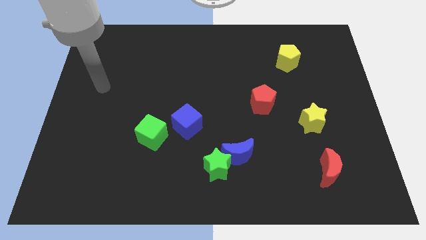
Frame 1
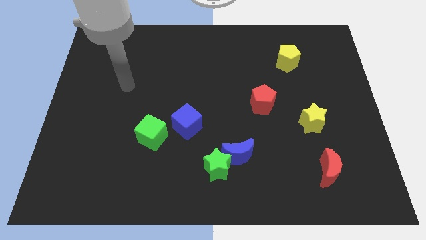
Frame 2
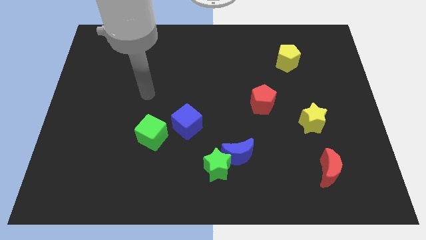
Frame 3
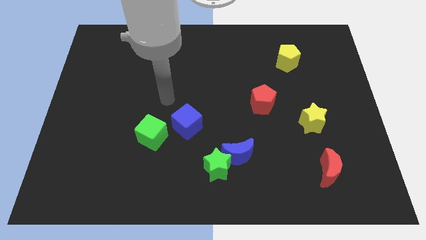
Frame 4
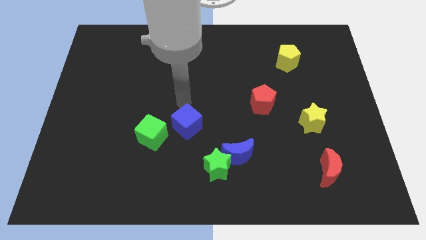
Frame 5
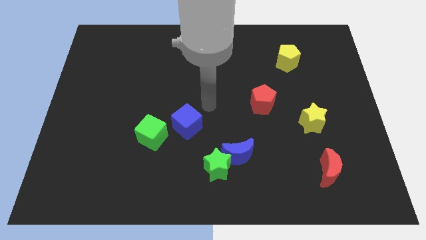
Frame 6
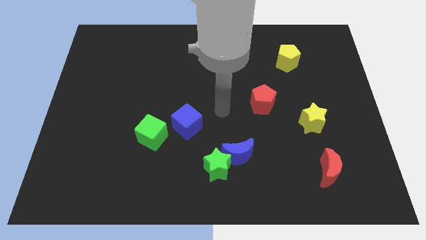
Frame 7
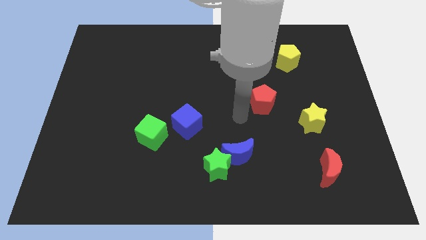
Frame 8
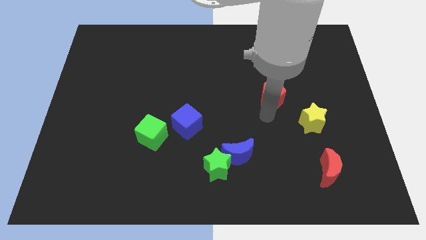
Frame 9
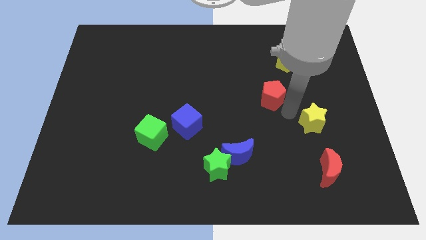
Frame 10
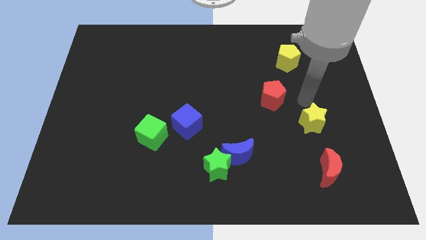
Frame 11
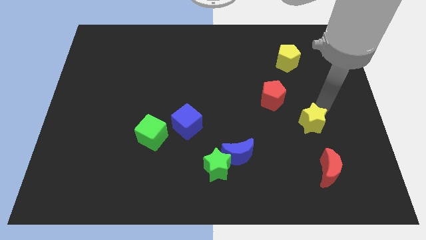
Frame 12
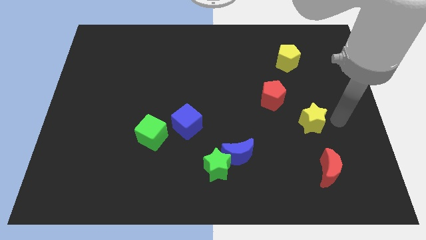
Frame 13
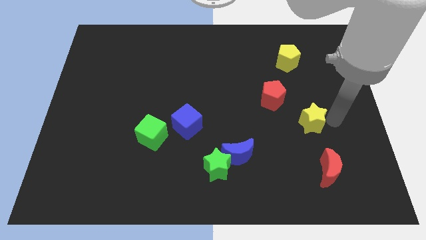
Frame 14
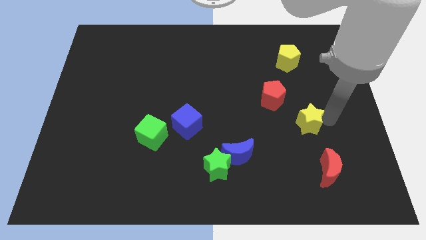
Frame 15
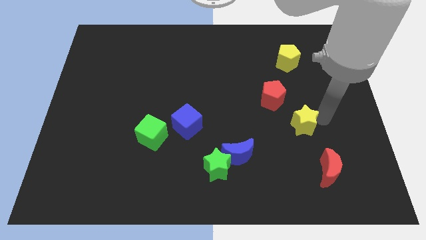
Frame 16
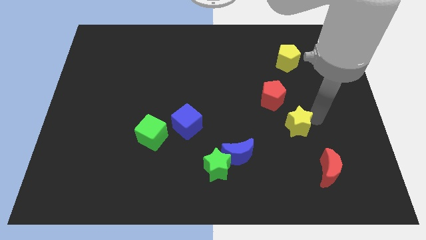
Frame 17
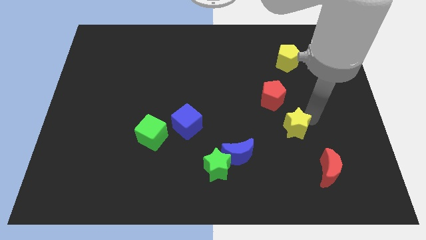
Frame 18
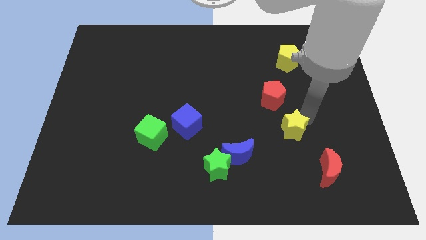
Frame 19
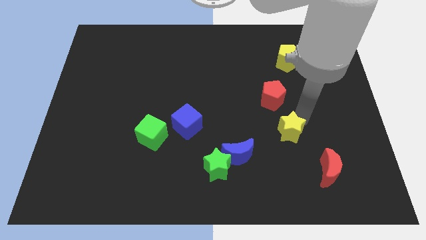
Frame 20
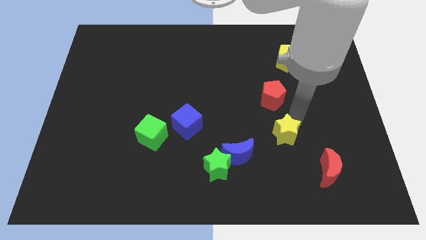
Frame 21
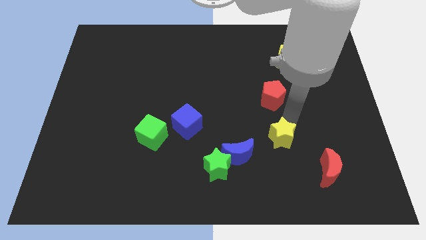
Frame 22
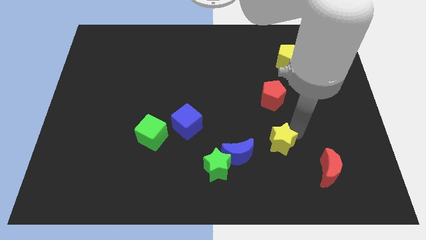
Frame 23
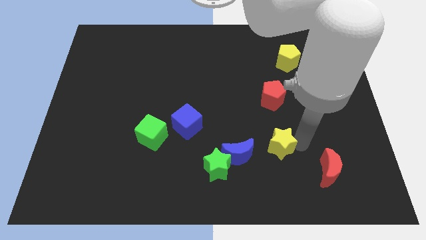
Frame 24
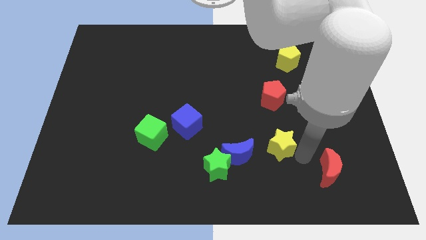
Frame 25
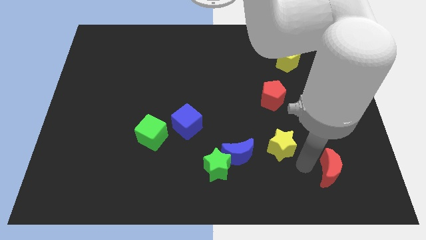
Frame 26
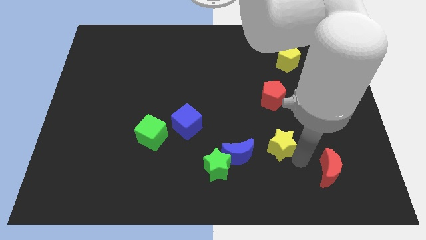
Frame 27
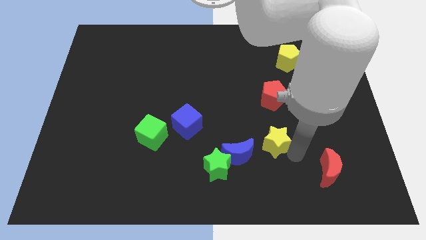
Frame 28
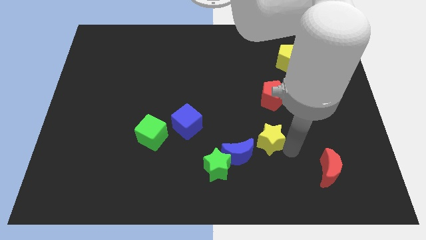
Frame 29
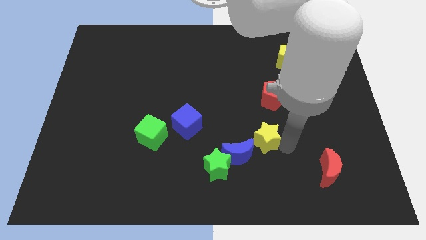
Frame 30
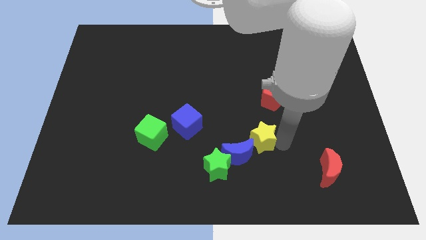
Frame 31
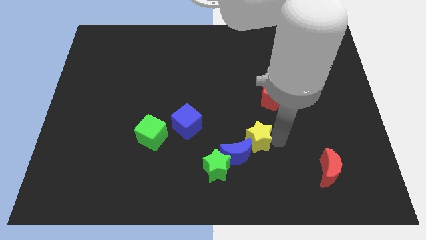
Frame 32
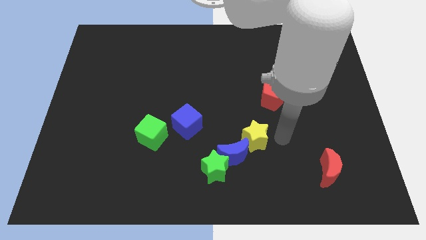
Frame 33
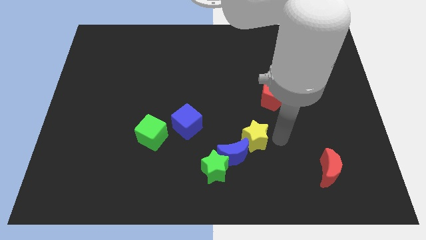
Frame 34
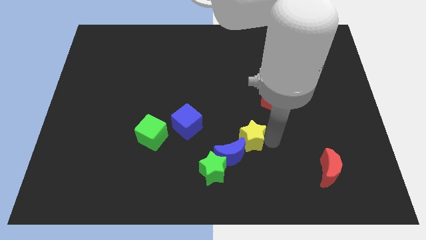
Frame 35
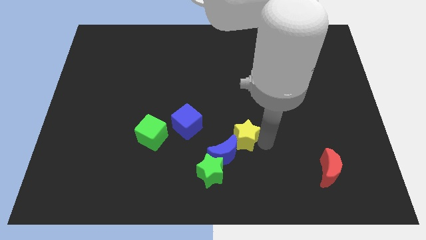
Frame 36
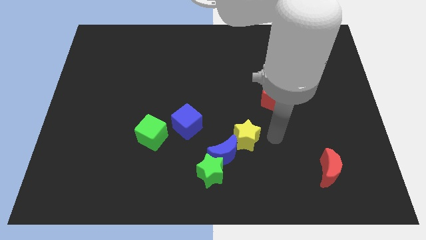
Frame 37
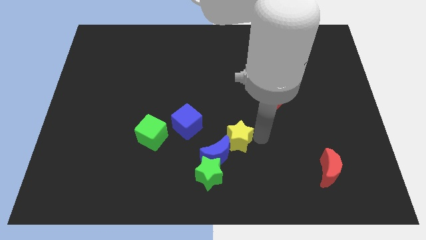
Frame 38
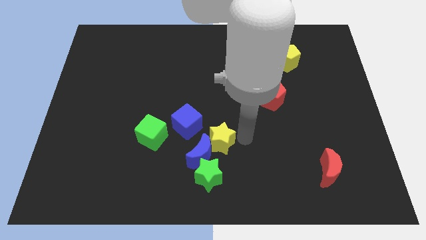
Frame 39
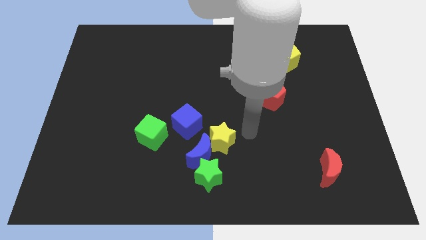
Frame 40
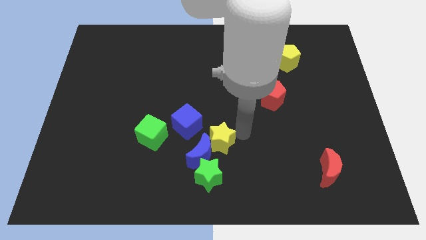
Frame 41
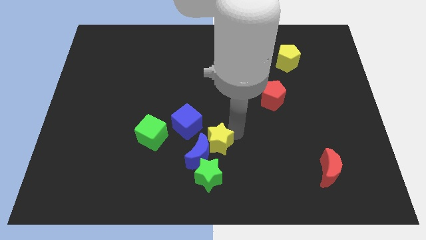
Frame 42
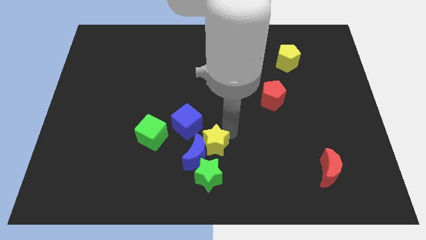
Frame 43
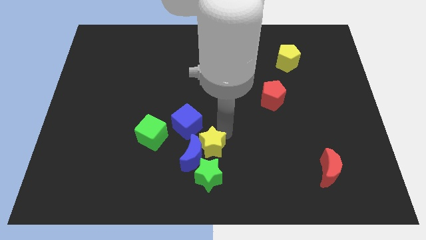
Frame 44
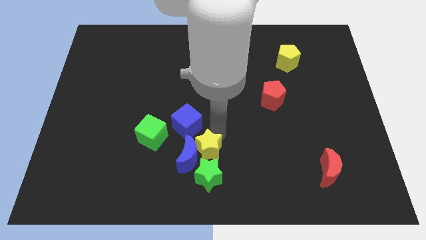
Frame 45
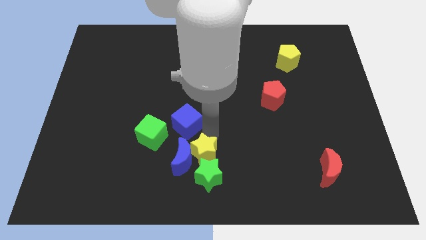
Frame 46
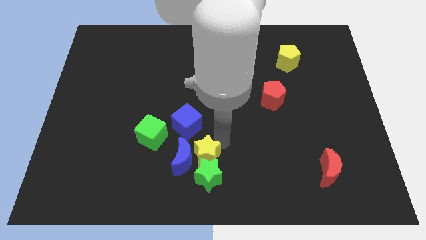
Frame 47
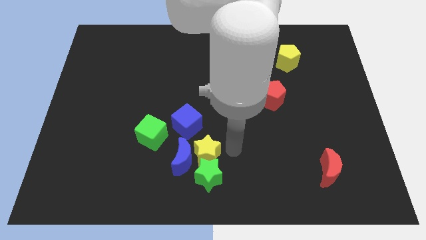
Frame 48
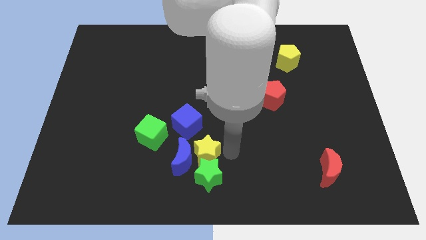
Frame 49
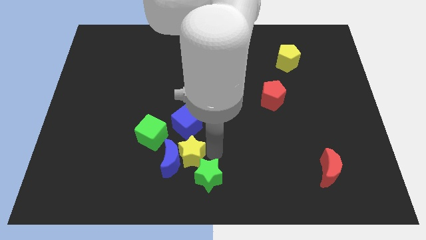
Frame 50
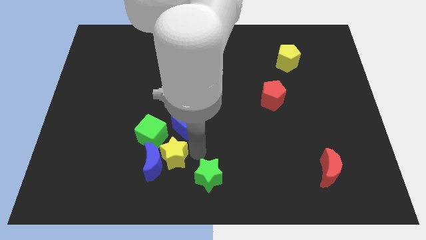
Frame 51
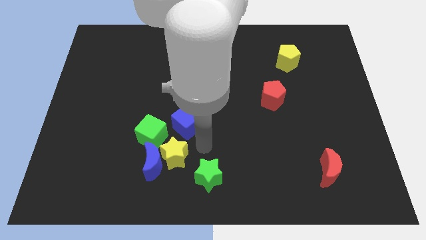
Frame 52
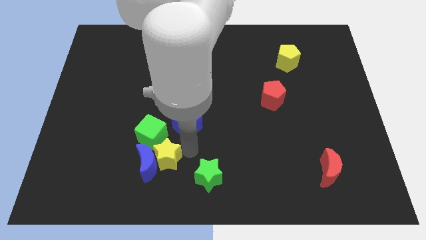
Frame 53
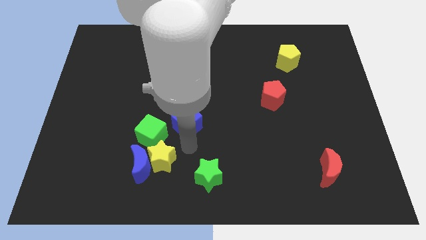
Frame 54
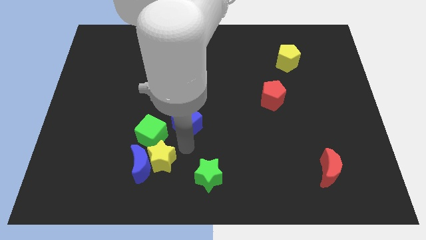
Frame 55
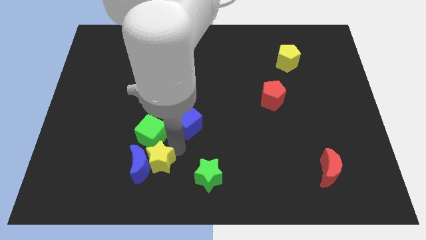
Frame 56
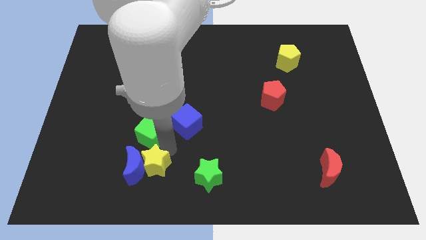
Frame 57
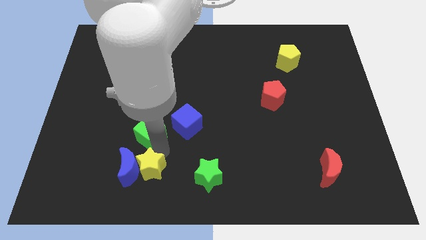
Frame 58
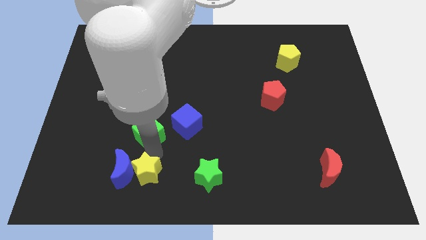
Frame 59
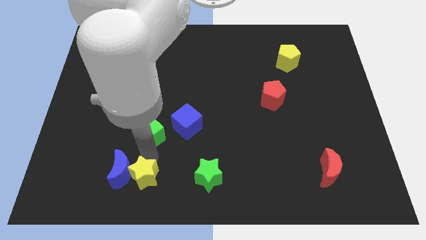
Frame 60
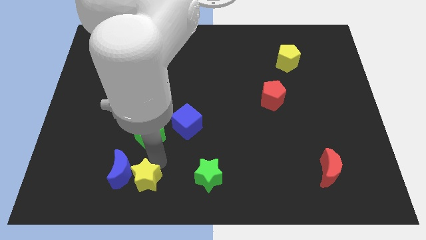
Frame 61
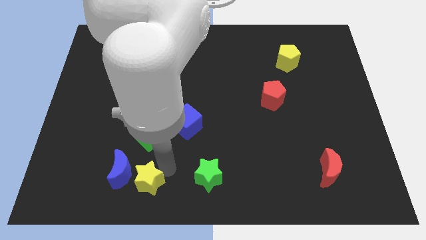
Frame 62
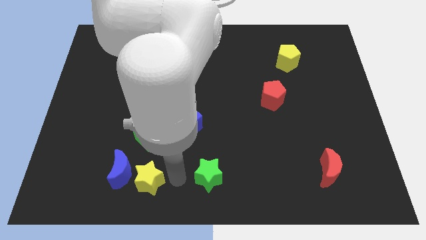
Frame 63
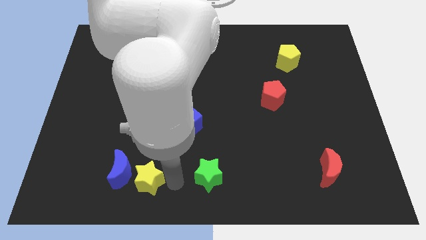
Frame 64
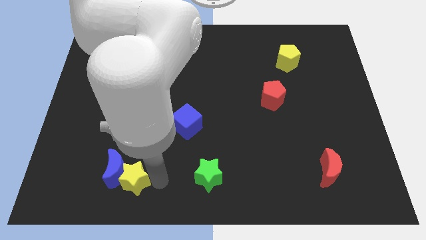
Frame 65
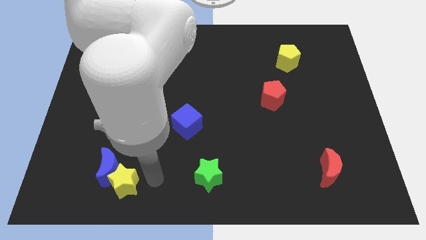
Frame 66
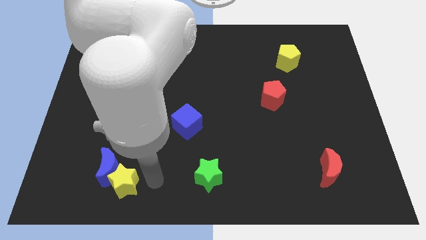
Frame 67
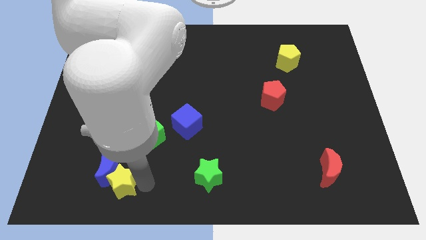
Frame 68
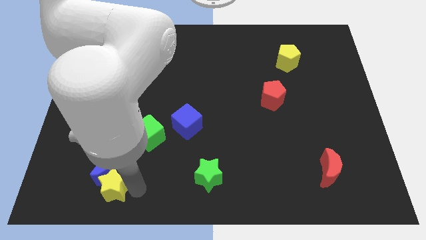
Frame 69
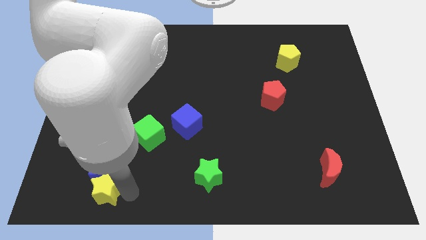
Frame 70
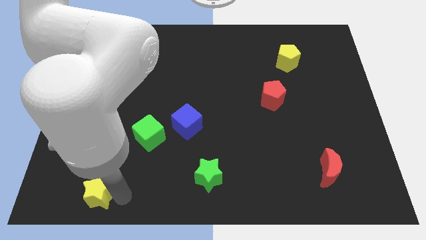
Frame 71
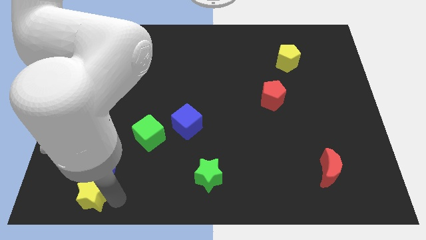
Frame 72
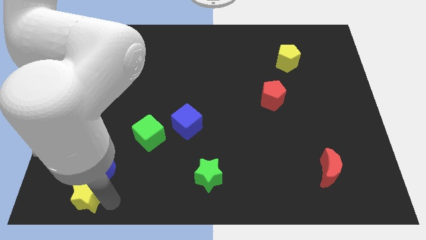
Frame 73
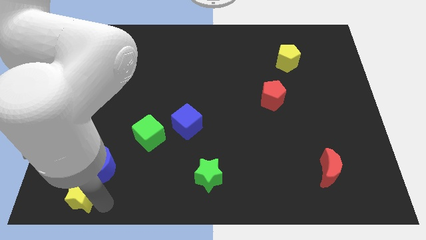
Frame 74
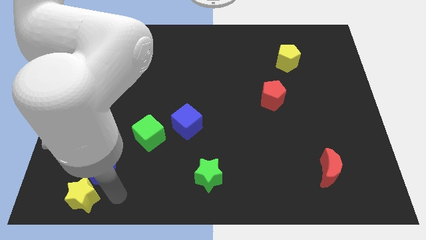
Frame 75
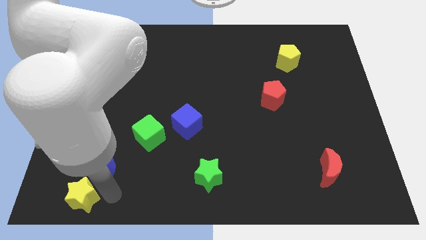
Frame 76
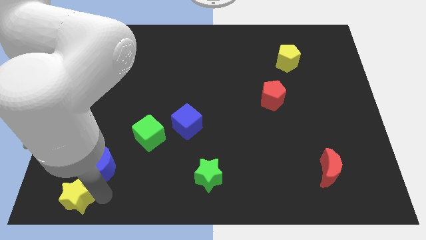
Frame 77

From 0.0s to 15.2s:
push the yellow star to the lower left corner
